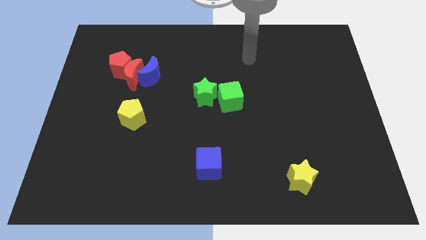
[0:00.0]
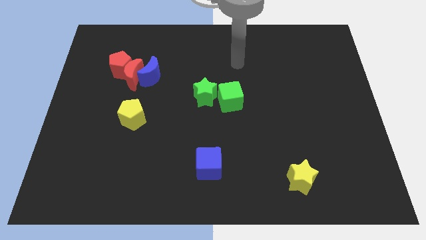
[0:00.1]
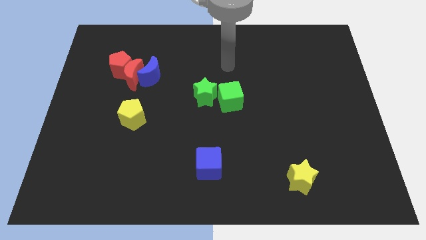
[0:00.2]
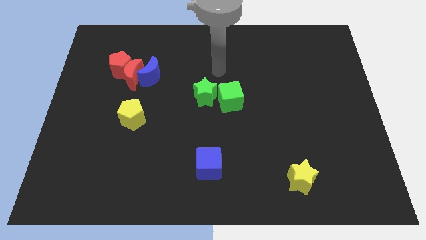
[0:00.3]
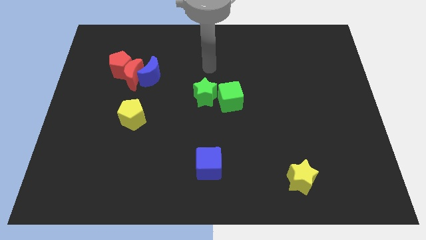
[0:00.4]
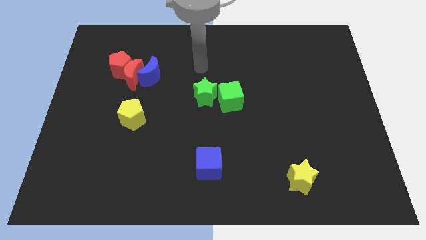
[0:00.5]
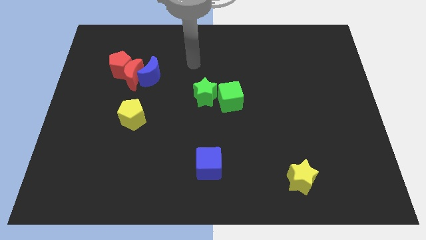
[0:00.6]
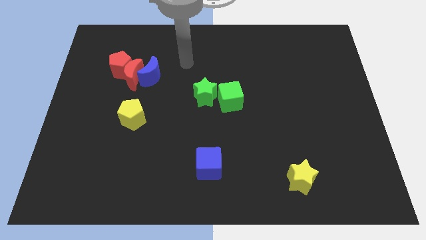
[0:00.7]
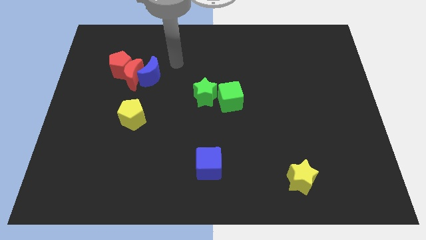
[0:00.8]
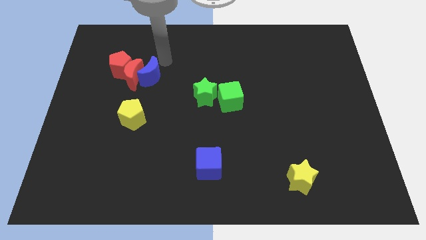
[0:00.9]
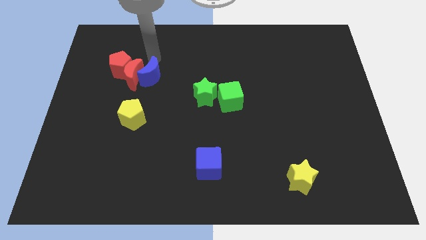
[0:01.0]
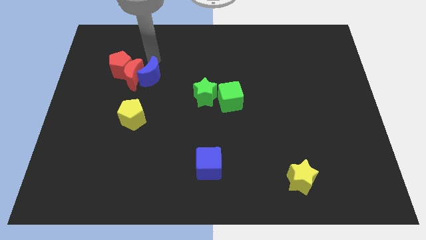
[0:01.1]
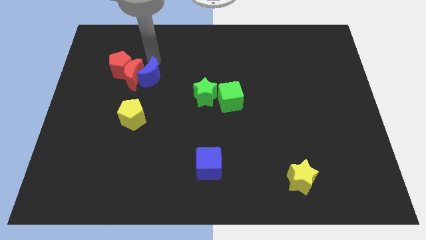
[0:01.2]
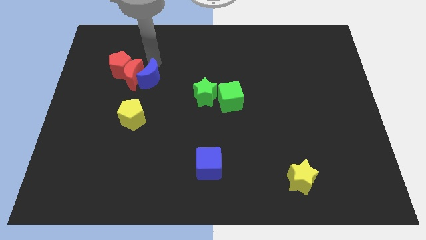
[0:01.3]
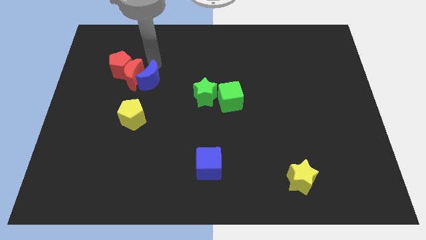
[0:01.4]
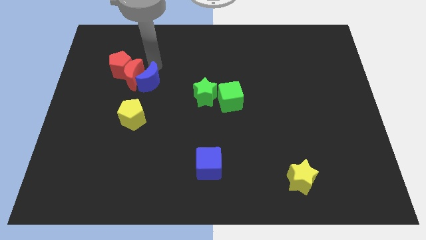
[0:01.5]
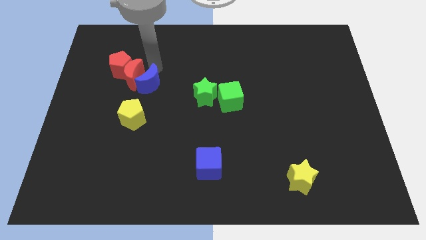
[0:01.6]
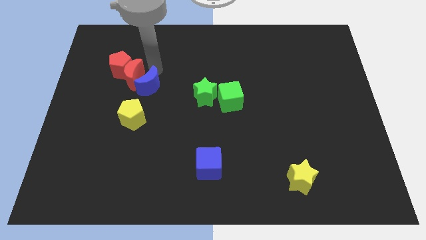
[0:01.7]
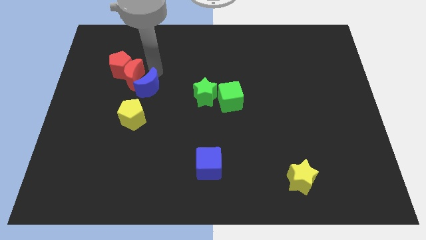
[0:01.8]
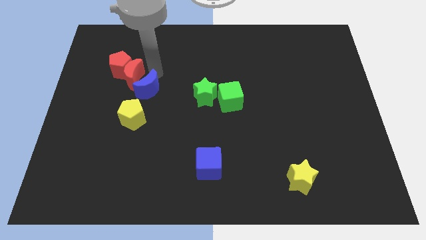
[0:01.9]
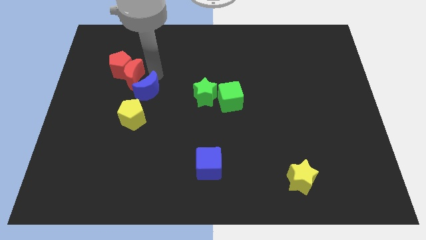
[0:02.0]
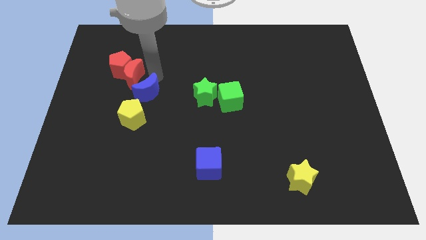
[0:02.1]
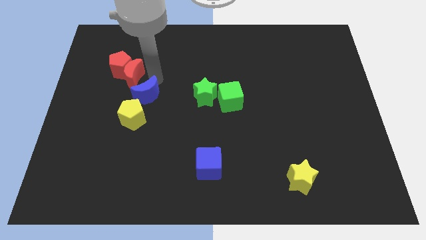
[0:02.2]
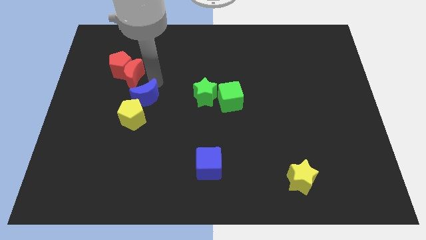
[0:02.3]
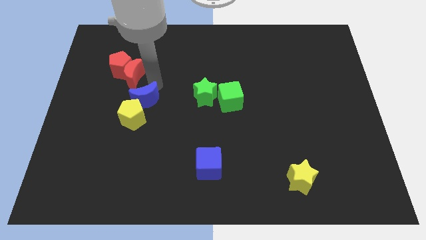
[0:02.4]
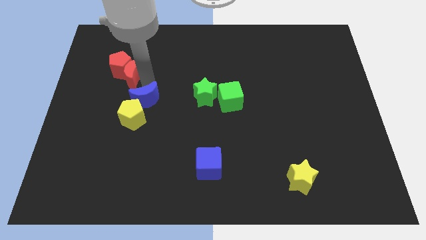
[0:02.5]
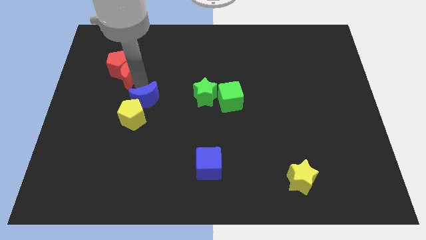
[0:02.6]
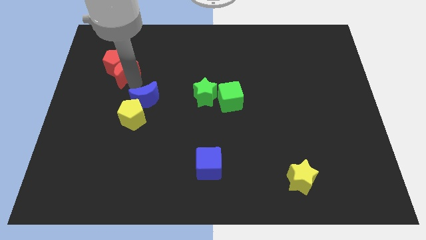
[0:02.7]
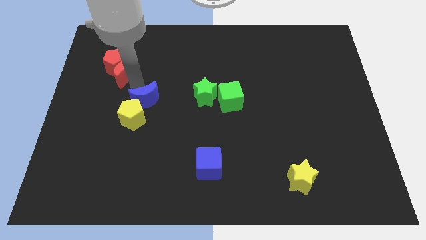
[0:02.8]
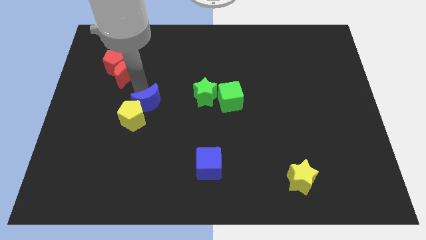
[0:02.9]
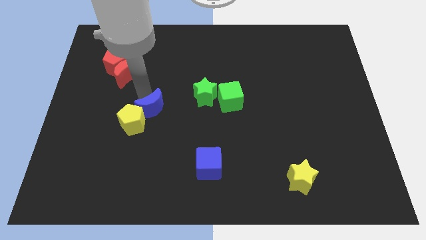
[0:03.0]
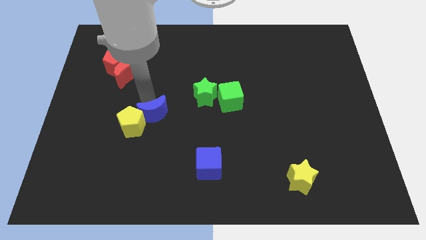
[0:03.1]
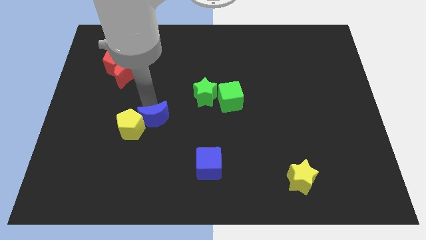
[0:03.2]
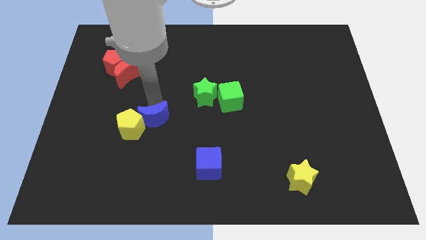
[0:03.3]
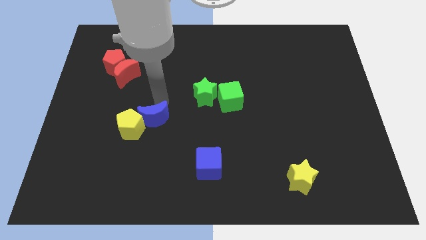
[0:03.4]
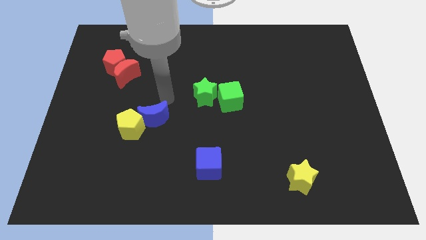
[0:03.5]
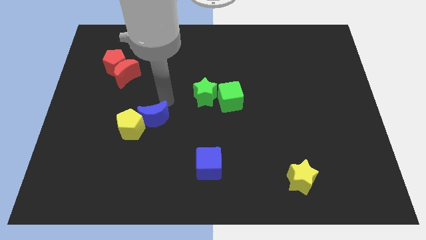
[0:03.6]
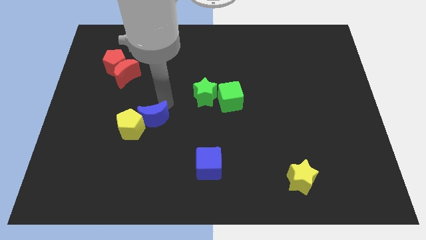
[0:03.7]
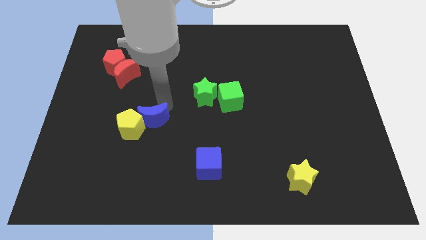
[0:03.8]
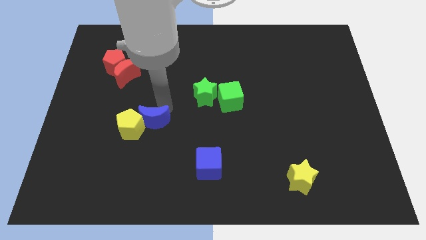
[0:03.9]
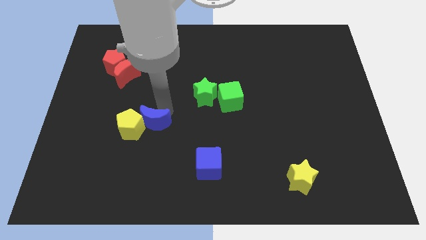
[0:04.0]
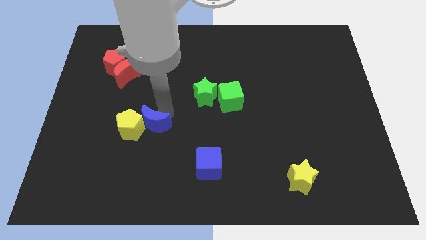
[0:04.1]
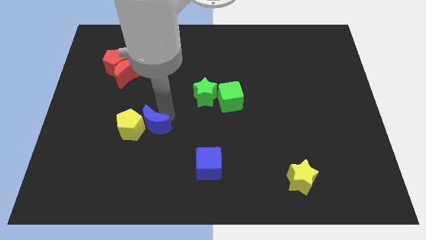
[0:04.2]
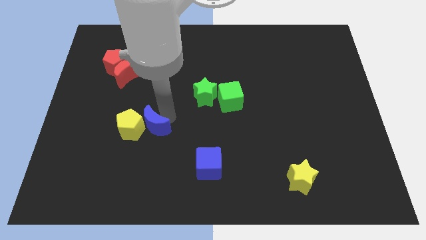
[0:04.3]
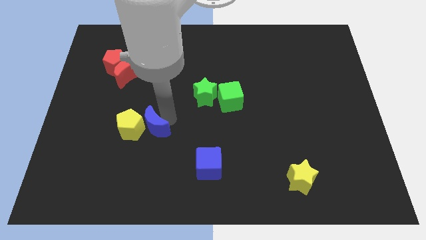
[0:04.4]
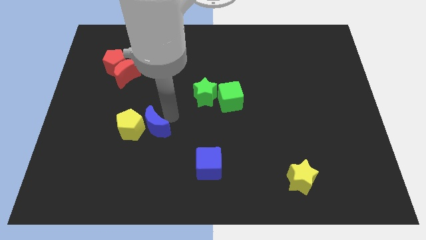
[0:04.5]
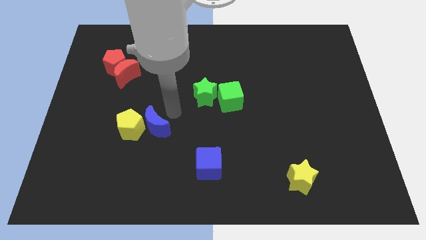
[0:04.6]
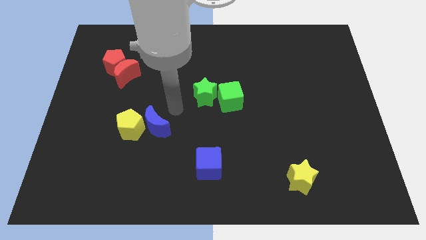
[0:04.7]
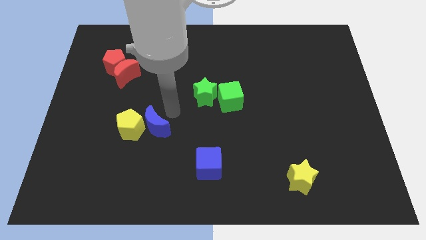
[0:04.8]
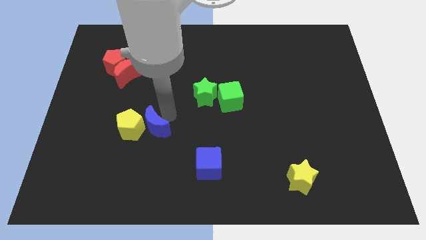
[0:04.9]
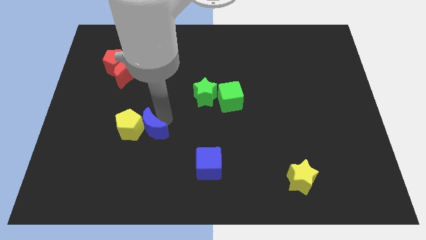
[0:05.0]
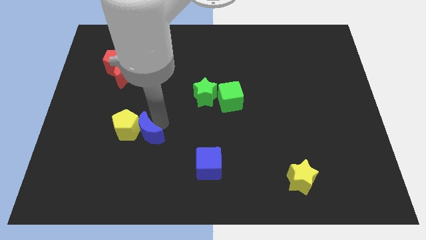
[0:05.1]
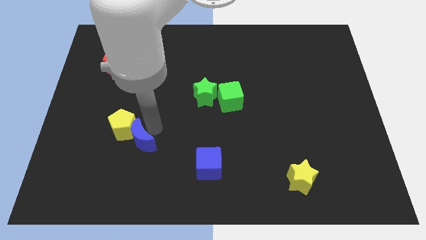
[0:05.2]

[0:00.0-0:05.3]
slide the blue moon to the bottom of the yellow pentagon

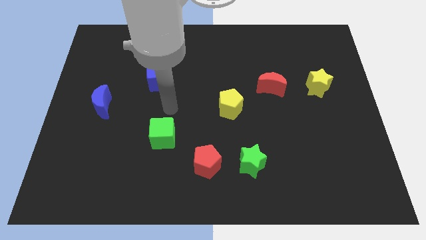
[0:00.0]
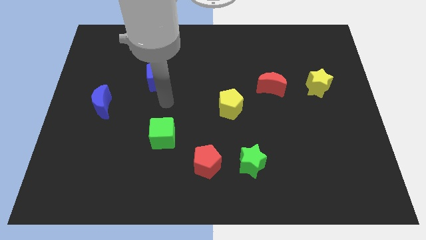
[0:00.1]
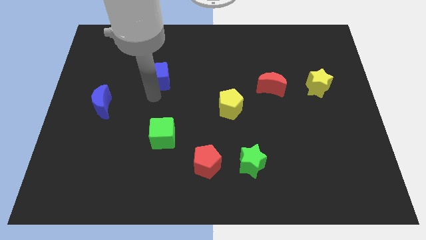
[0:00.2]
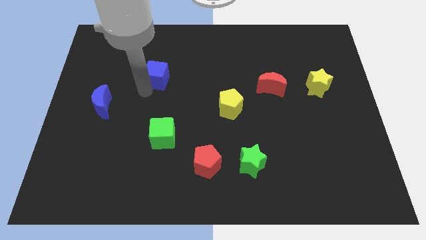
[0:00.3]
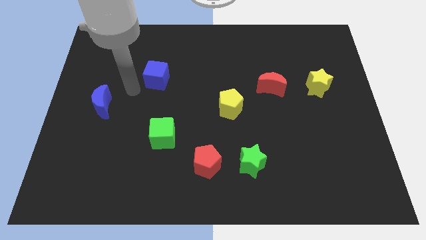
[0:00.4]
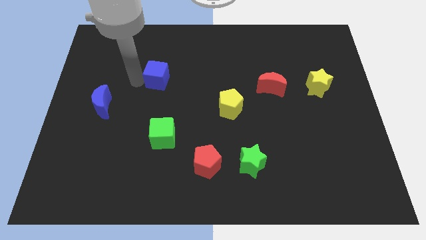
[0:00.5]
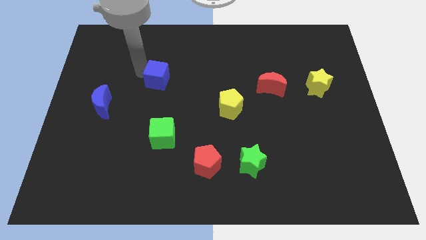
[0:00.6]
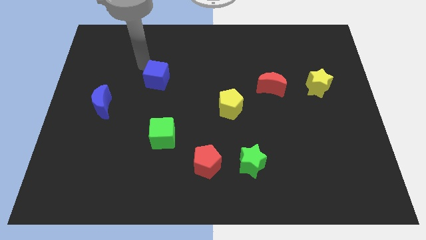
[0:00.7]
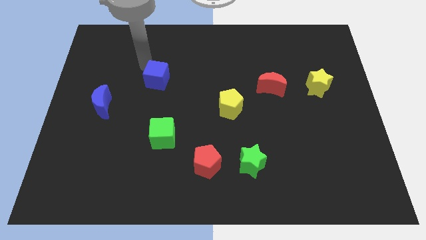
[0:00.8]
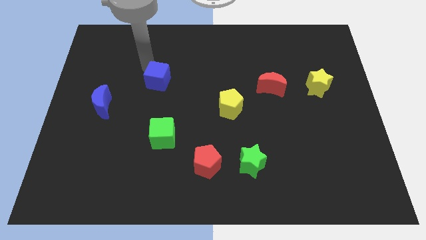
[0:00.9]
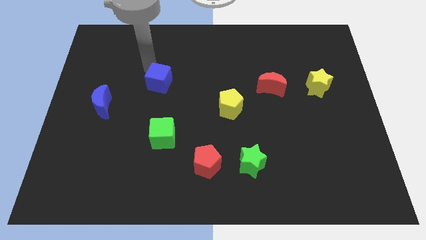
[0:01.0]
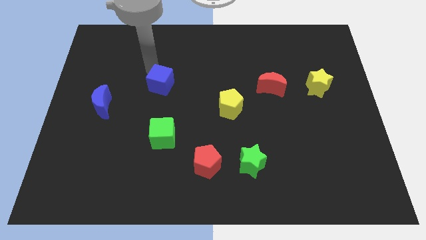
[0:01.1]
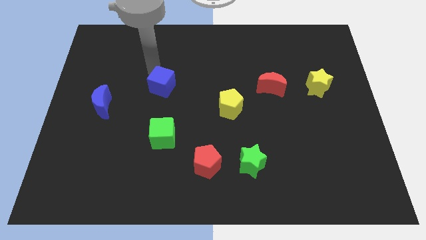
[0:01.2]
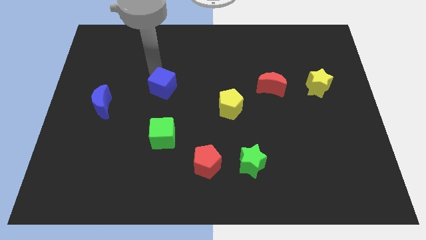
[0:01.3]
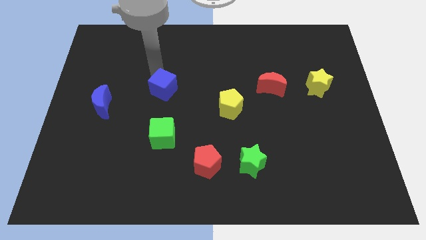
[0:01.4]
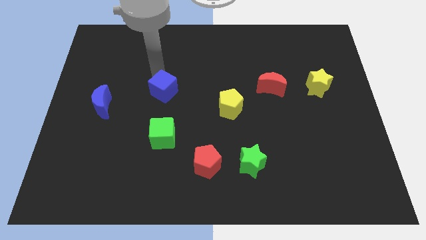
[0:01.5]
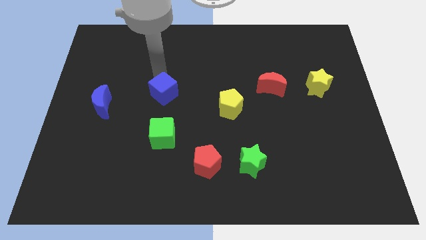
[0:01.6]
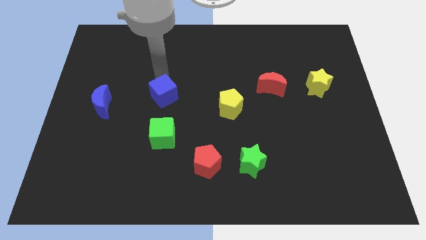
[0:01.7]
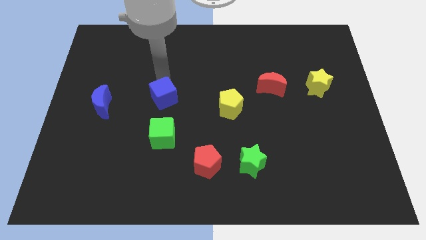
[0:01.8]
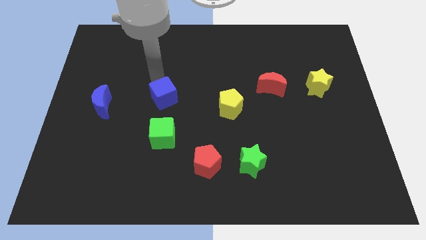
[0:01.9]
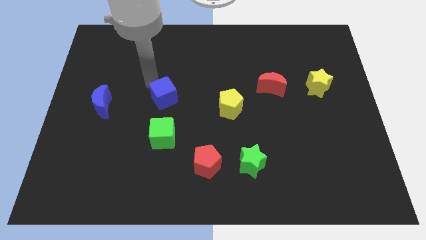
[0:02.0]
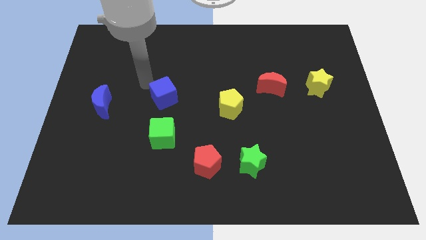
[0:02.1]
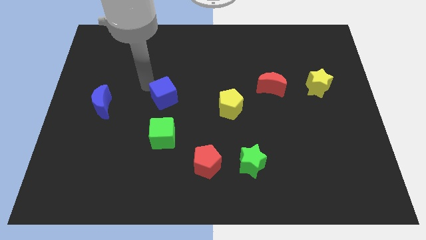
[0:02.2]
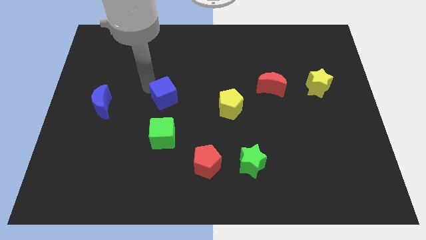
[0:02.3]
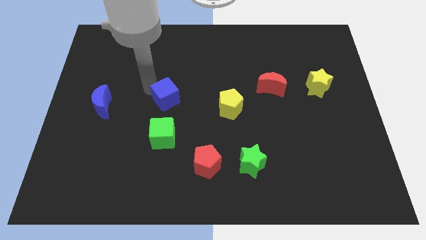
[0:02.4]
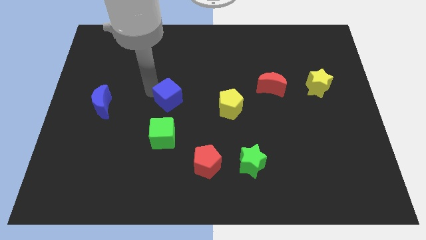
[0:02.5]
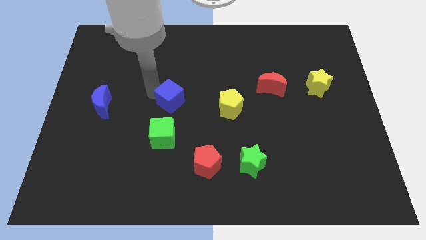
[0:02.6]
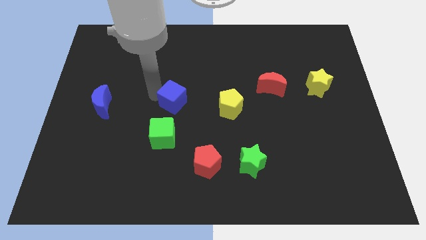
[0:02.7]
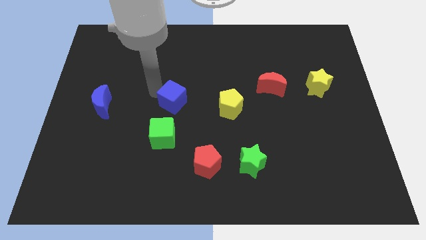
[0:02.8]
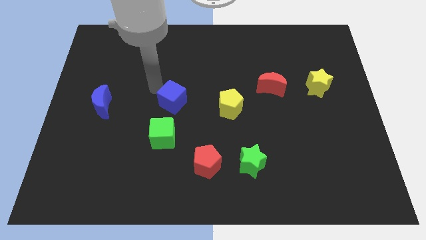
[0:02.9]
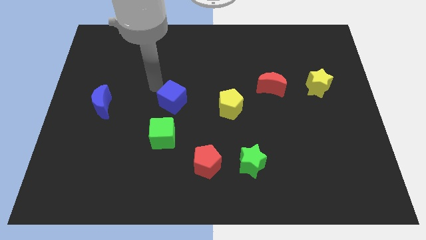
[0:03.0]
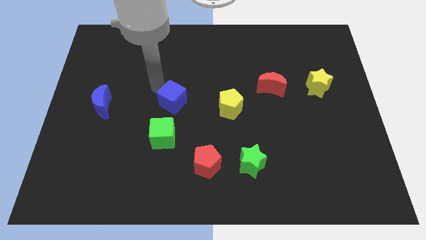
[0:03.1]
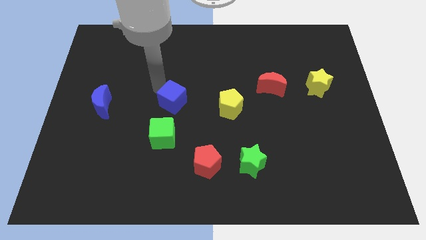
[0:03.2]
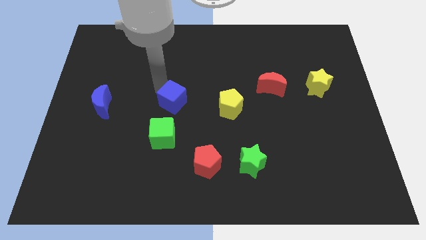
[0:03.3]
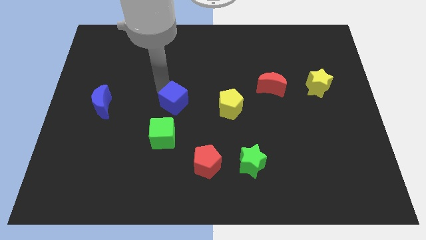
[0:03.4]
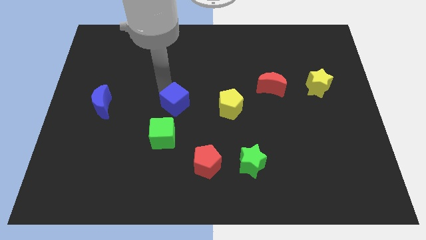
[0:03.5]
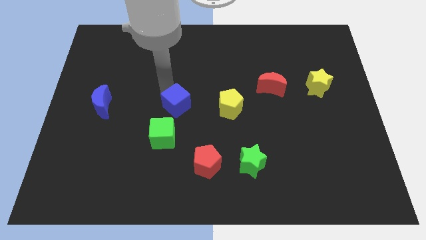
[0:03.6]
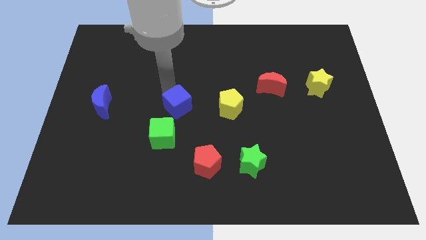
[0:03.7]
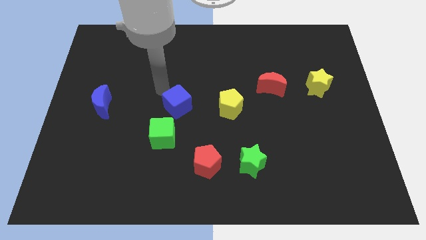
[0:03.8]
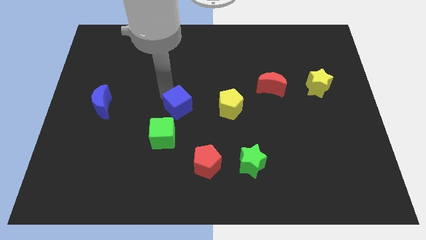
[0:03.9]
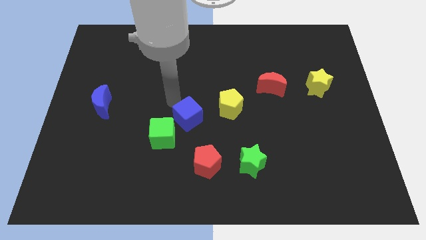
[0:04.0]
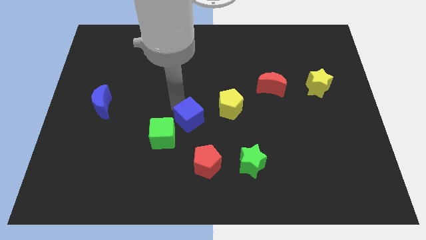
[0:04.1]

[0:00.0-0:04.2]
move the blue cube to the right of the green cube
